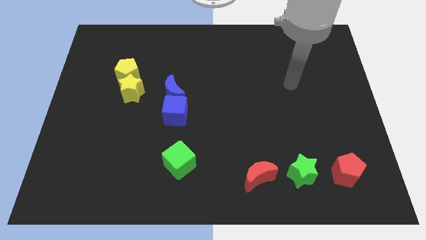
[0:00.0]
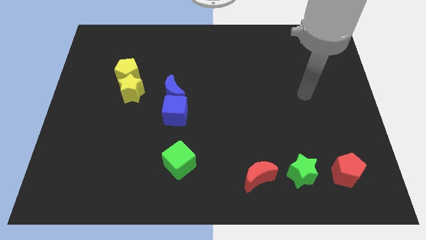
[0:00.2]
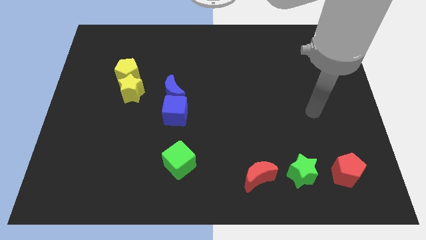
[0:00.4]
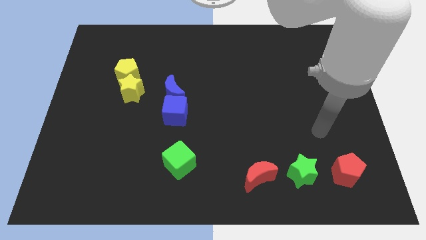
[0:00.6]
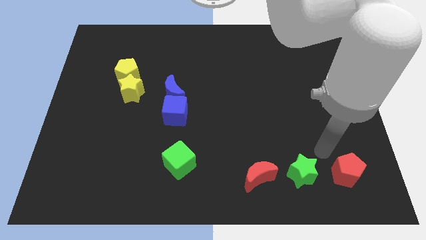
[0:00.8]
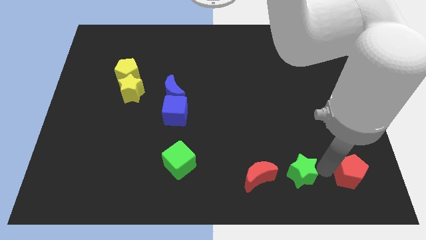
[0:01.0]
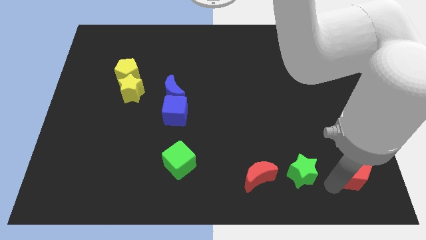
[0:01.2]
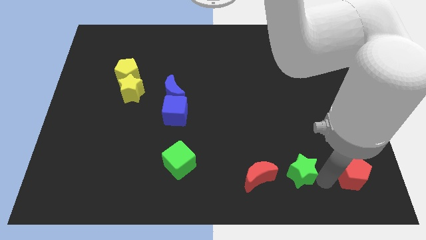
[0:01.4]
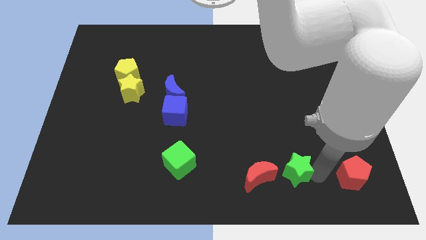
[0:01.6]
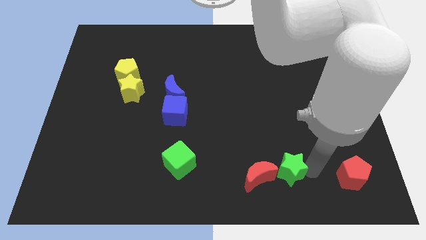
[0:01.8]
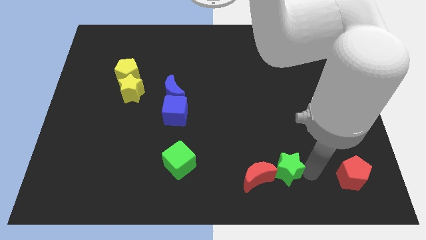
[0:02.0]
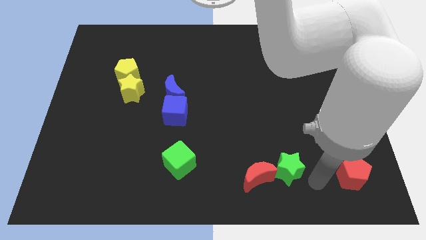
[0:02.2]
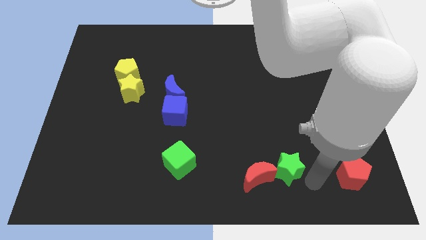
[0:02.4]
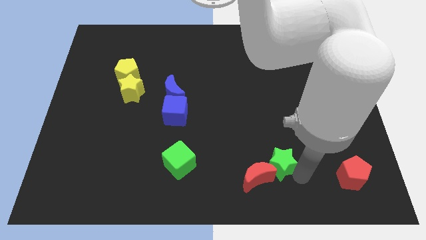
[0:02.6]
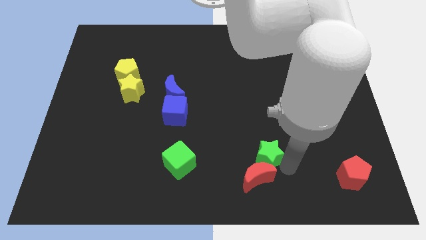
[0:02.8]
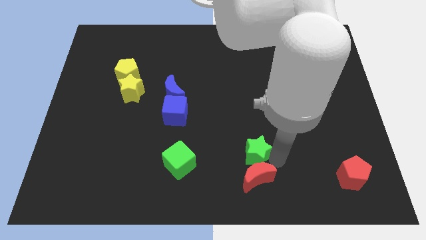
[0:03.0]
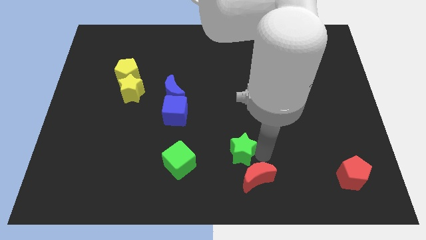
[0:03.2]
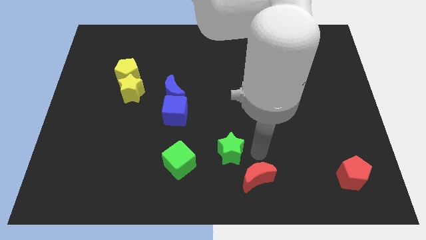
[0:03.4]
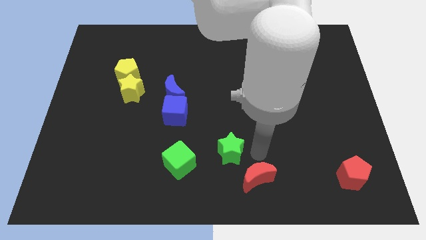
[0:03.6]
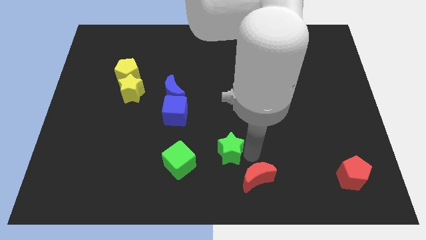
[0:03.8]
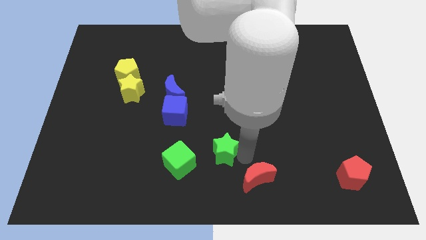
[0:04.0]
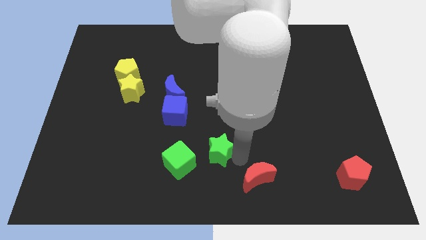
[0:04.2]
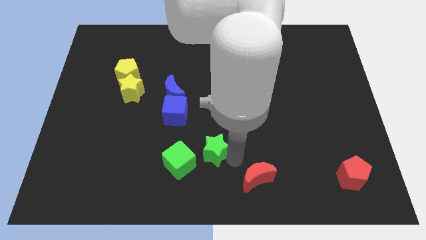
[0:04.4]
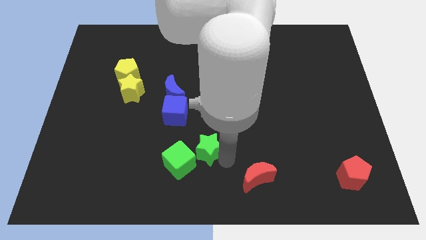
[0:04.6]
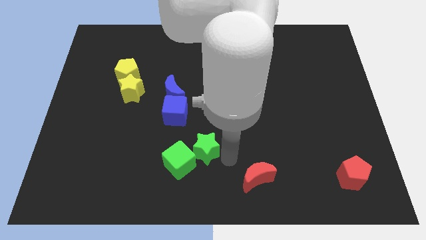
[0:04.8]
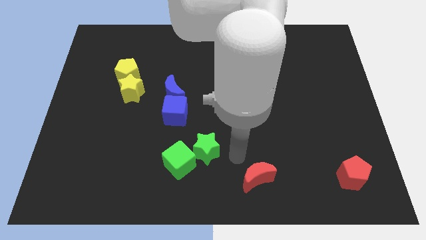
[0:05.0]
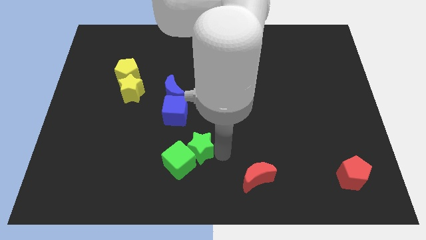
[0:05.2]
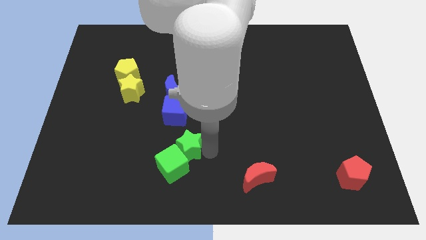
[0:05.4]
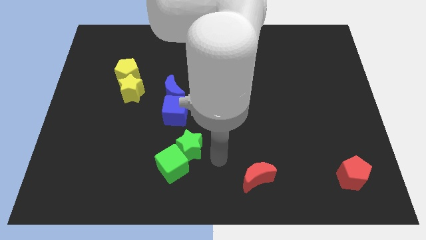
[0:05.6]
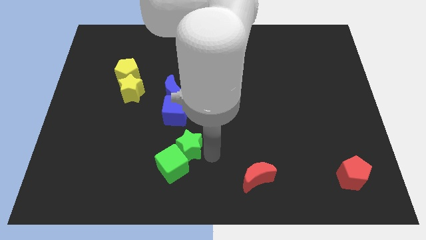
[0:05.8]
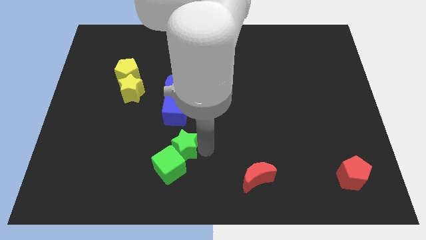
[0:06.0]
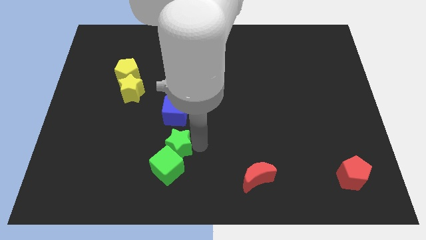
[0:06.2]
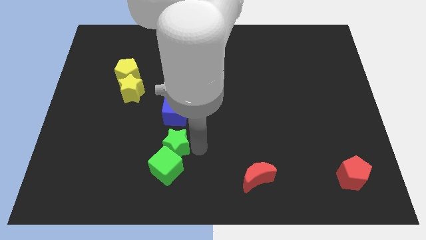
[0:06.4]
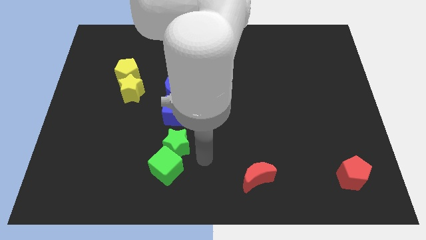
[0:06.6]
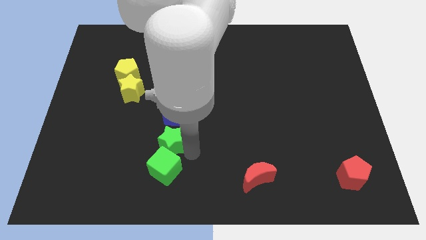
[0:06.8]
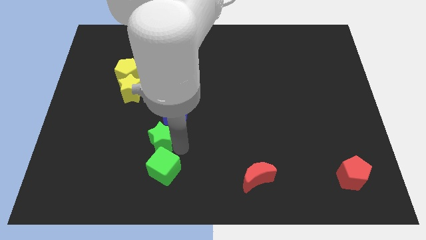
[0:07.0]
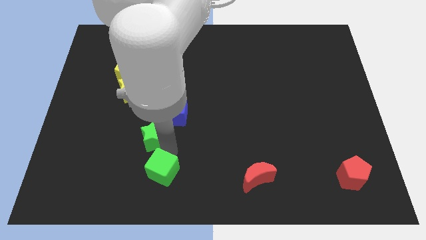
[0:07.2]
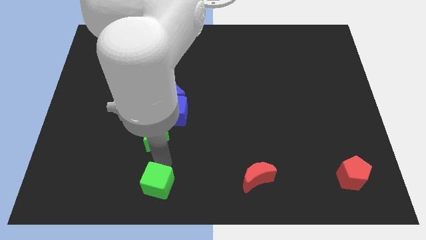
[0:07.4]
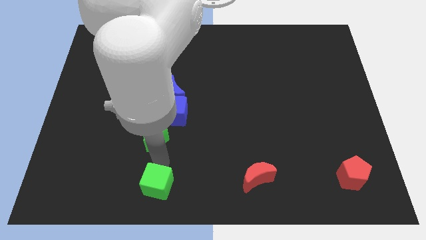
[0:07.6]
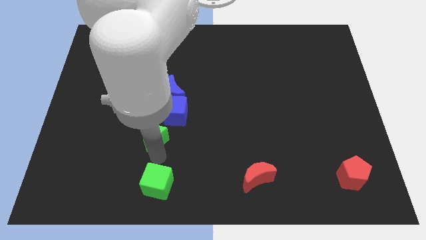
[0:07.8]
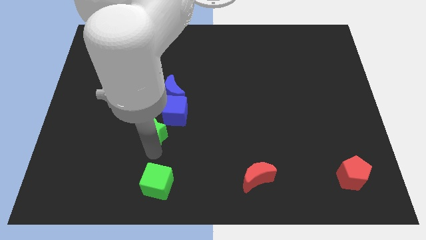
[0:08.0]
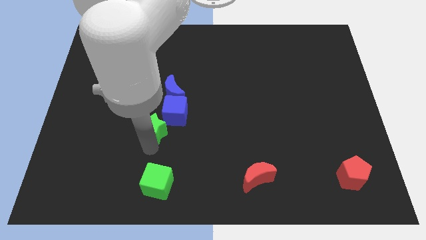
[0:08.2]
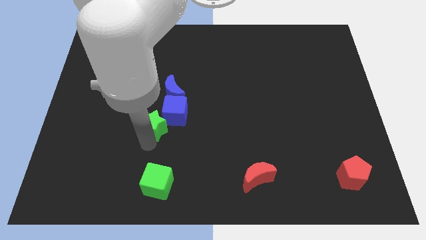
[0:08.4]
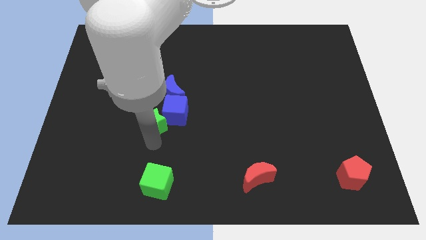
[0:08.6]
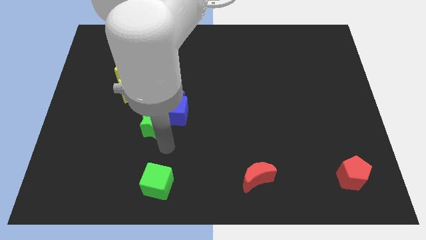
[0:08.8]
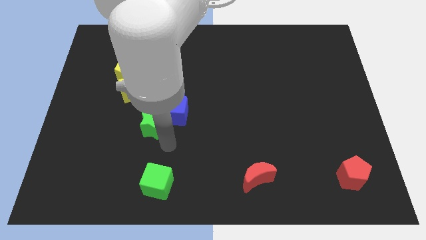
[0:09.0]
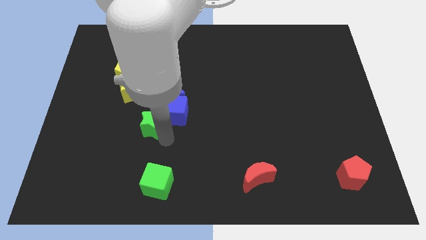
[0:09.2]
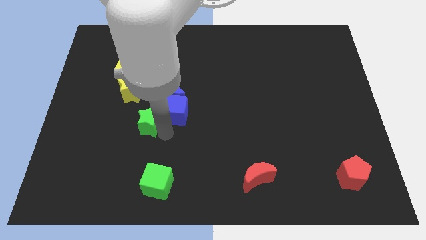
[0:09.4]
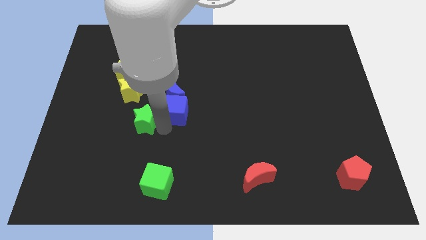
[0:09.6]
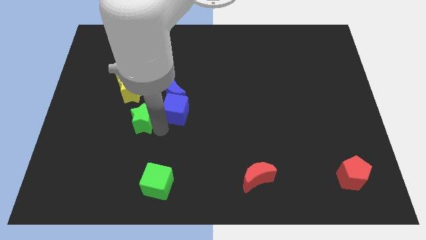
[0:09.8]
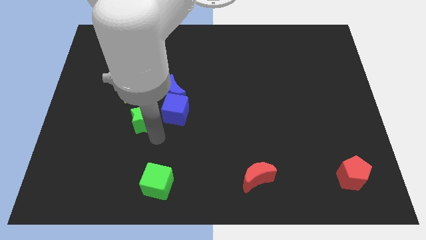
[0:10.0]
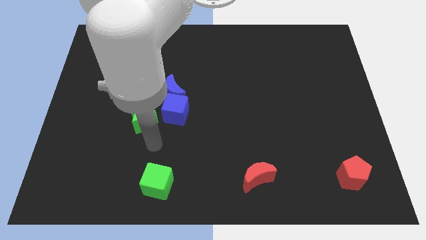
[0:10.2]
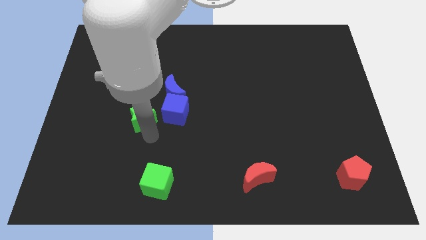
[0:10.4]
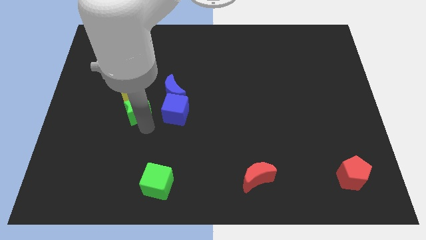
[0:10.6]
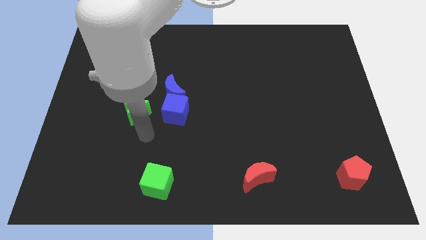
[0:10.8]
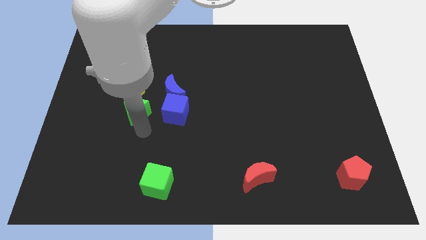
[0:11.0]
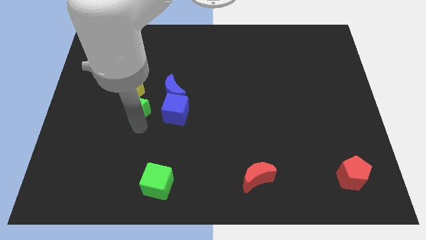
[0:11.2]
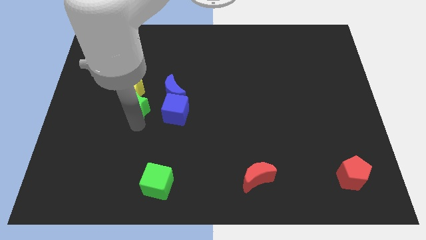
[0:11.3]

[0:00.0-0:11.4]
move the green star to the yellow star

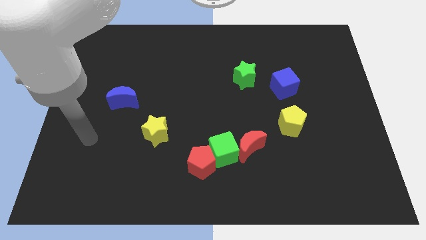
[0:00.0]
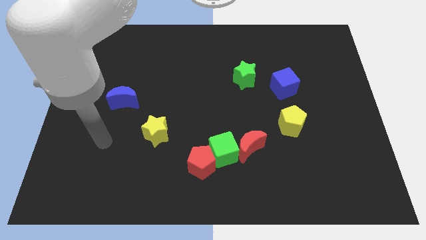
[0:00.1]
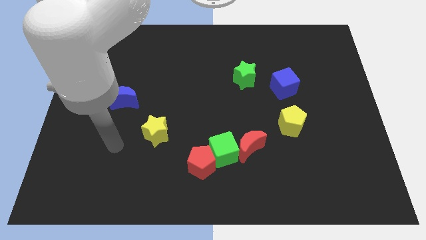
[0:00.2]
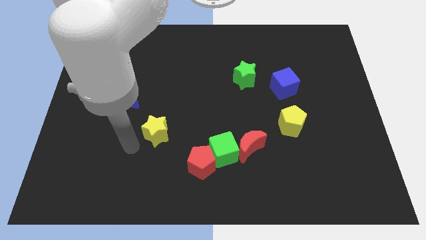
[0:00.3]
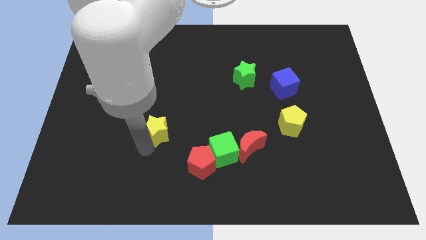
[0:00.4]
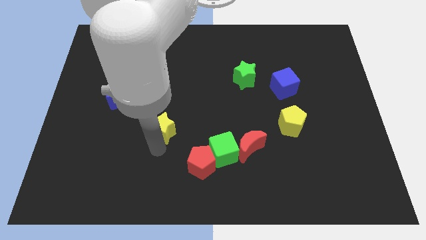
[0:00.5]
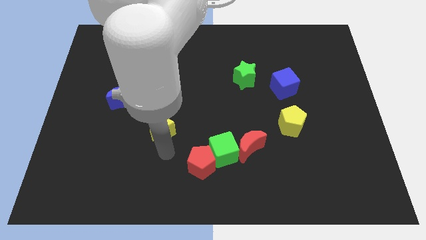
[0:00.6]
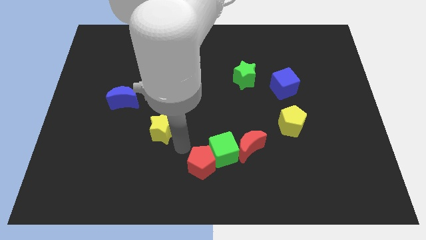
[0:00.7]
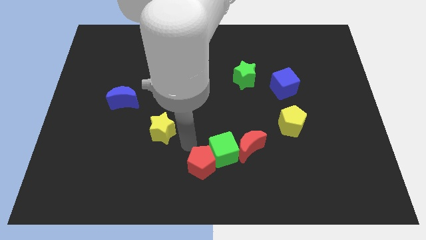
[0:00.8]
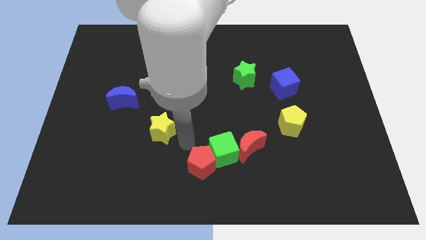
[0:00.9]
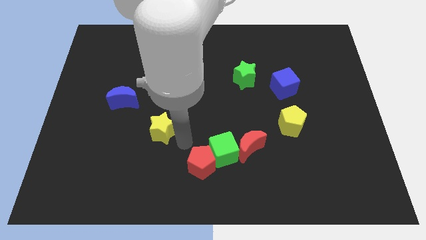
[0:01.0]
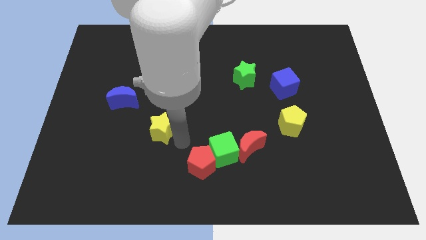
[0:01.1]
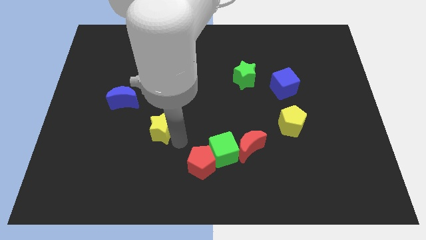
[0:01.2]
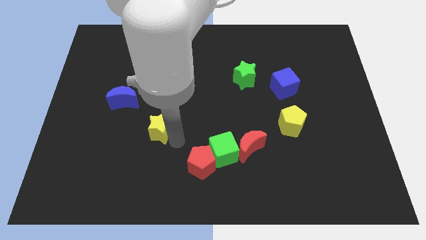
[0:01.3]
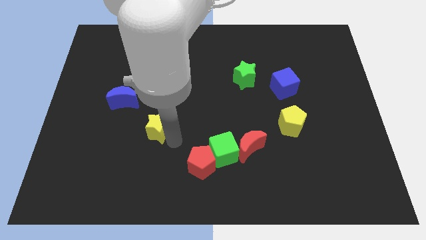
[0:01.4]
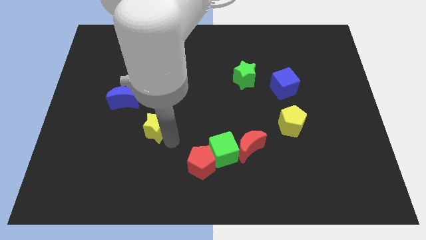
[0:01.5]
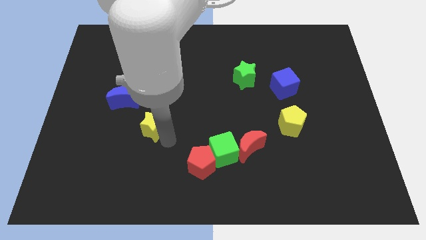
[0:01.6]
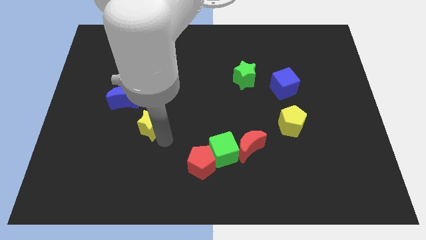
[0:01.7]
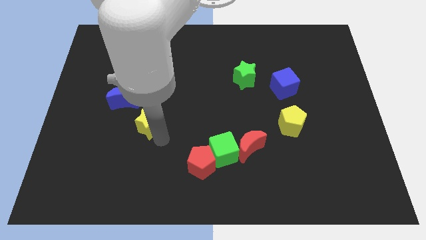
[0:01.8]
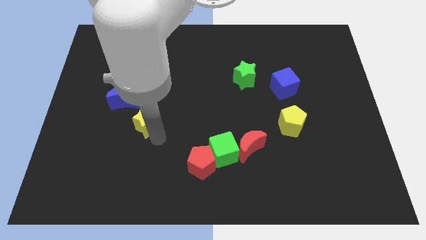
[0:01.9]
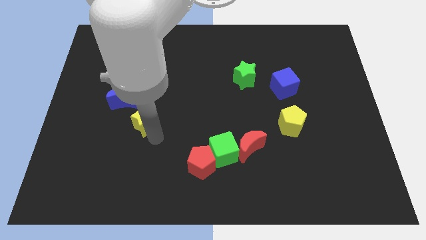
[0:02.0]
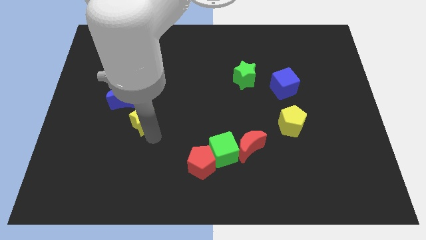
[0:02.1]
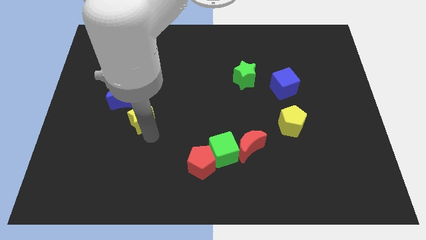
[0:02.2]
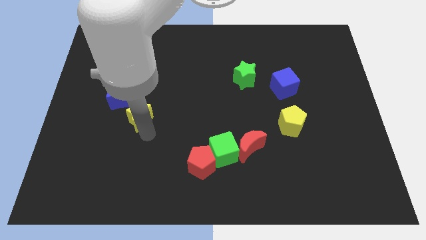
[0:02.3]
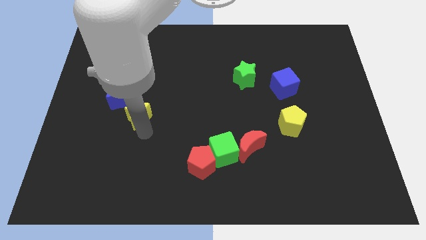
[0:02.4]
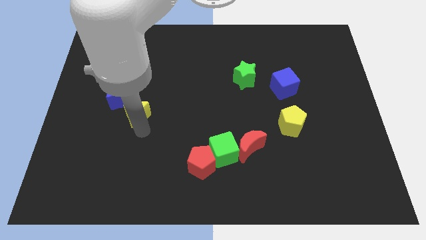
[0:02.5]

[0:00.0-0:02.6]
push the yellow star close to the blue moon
